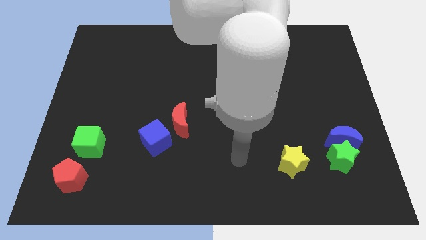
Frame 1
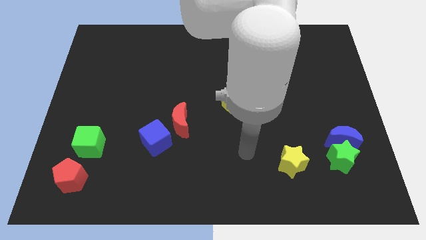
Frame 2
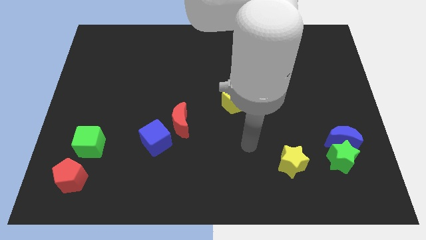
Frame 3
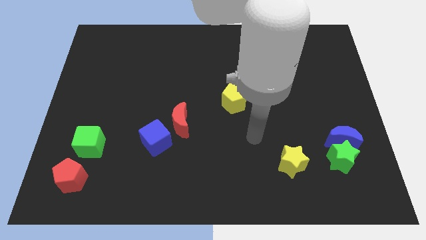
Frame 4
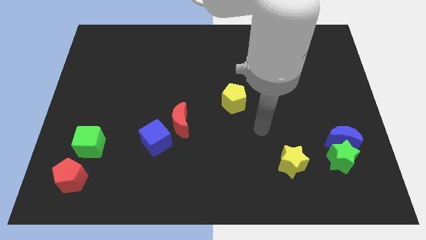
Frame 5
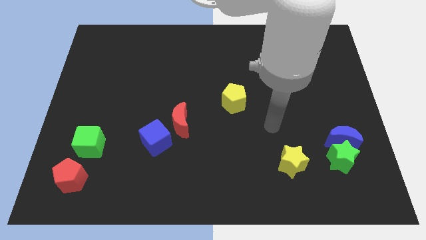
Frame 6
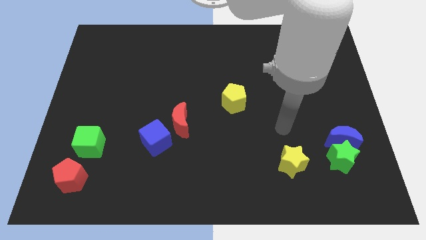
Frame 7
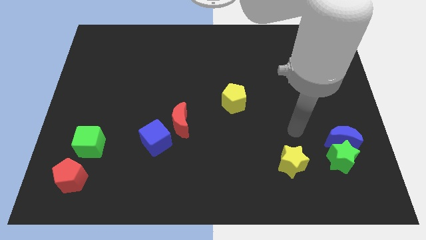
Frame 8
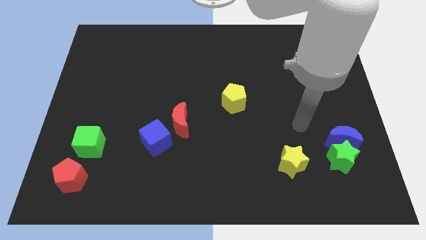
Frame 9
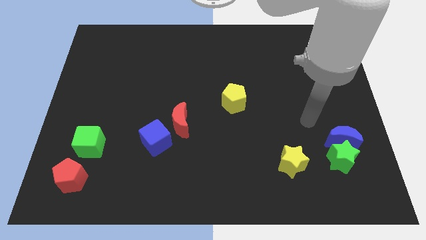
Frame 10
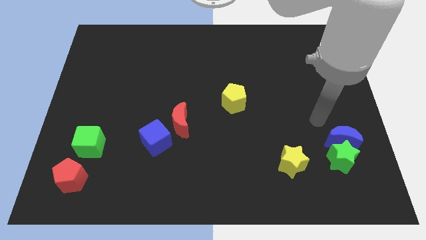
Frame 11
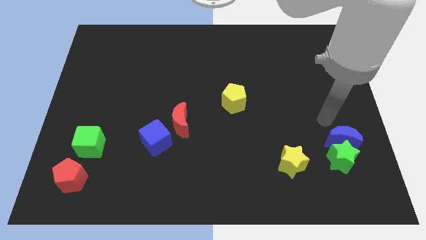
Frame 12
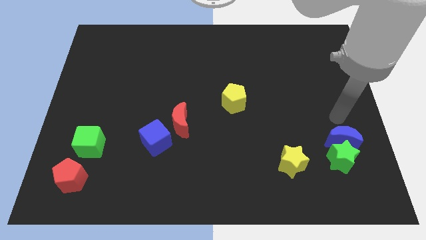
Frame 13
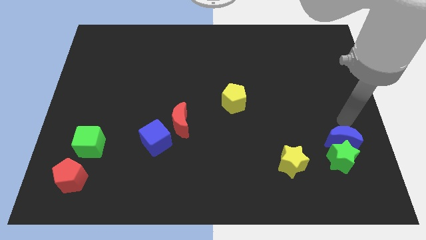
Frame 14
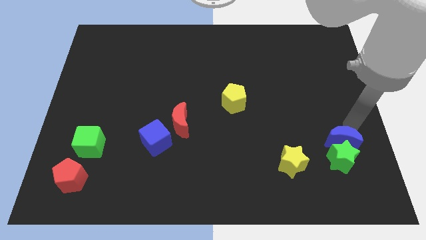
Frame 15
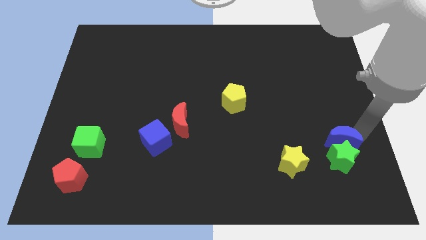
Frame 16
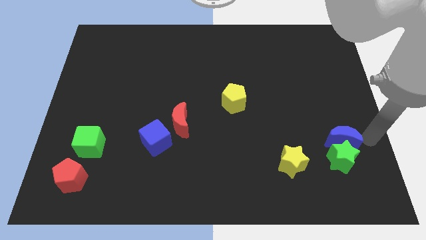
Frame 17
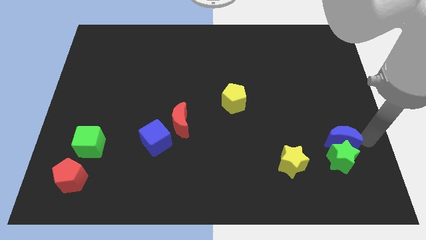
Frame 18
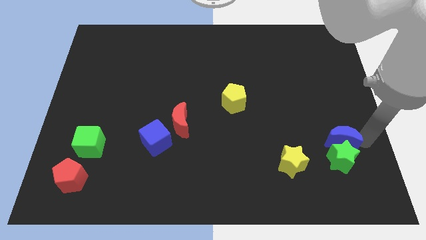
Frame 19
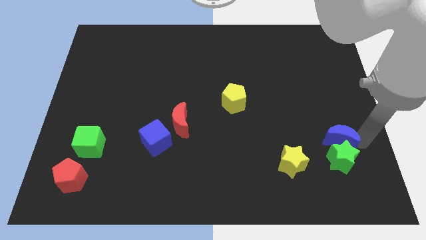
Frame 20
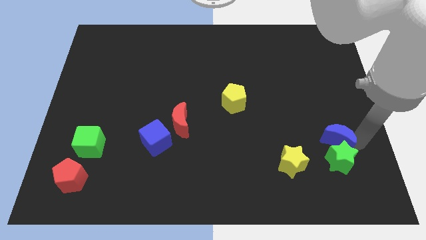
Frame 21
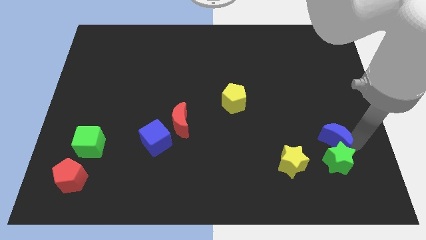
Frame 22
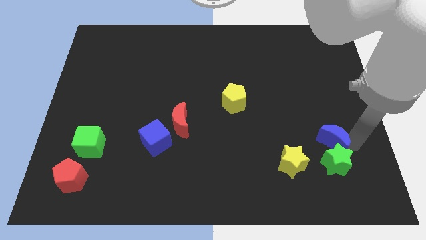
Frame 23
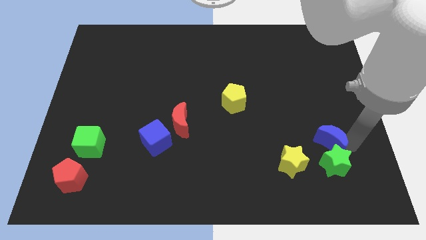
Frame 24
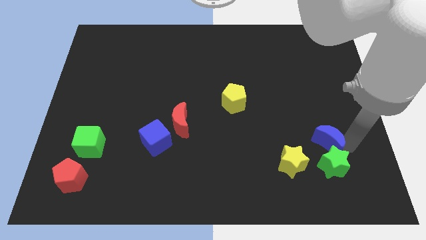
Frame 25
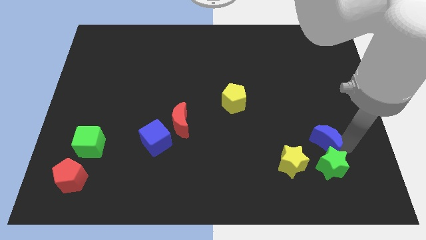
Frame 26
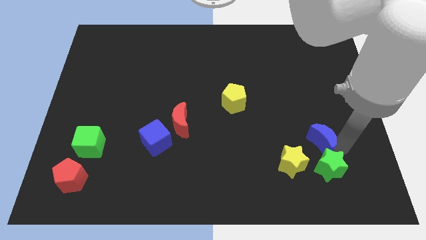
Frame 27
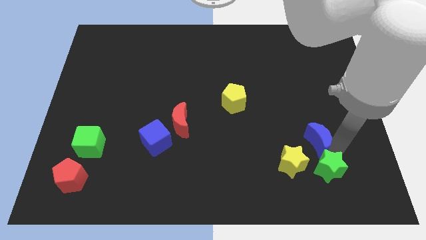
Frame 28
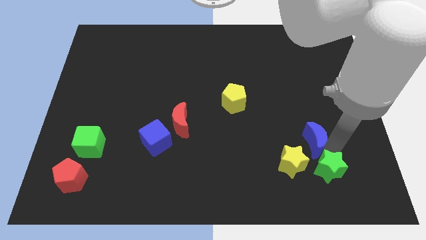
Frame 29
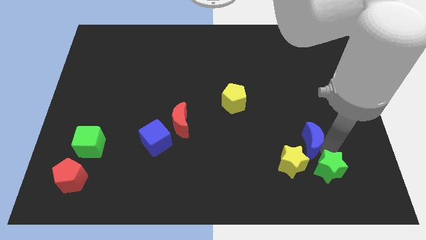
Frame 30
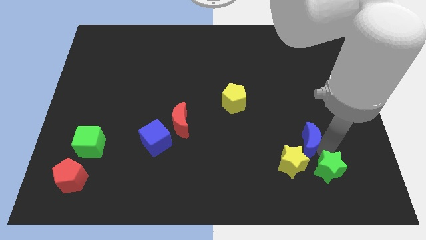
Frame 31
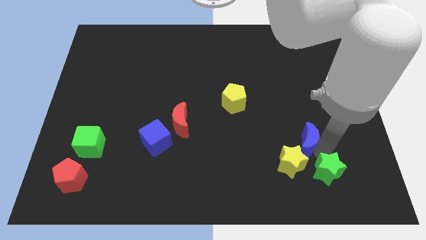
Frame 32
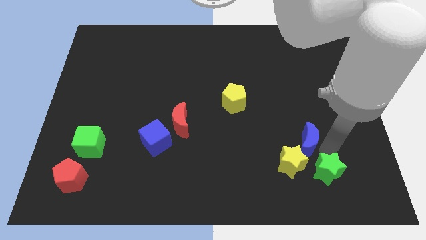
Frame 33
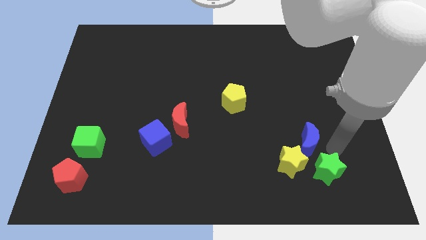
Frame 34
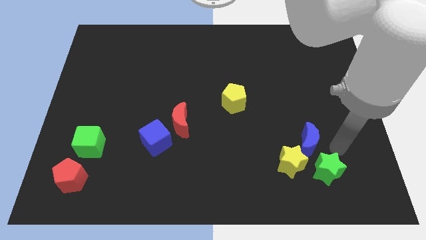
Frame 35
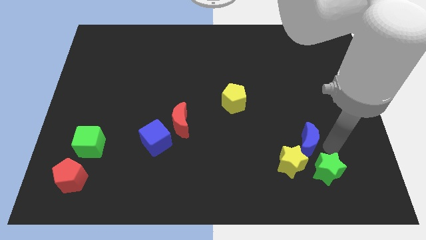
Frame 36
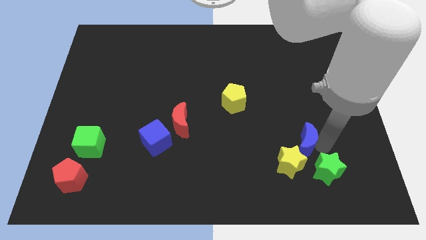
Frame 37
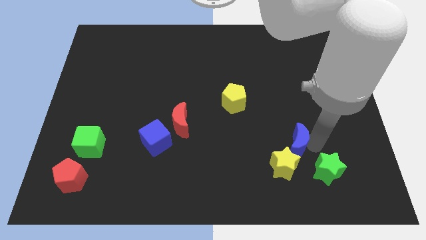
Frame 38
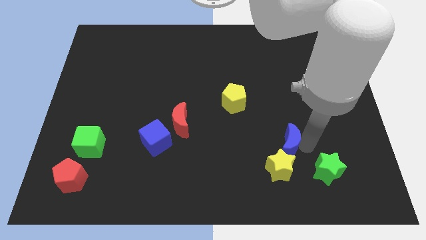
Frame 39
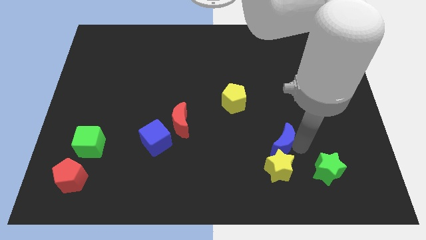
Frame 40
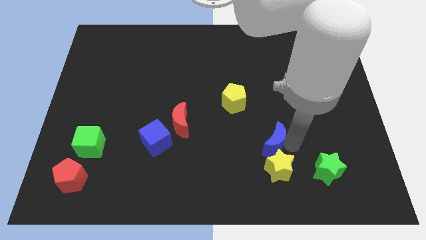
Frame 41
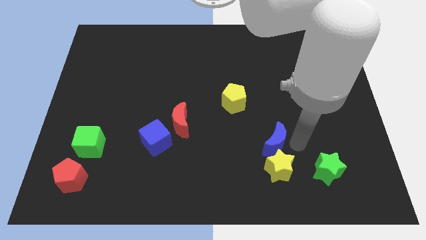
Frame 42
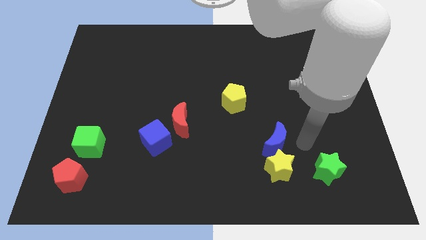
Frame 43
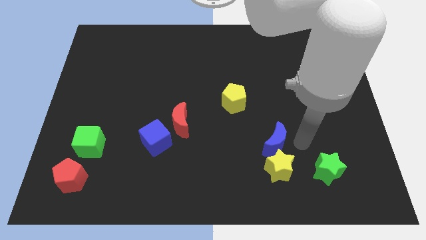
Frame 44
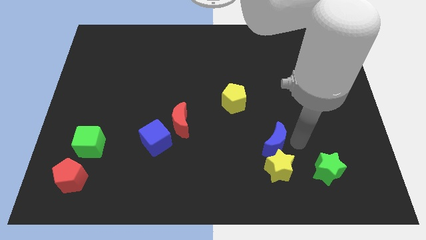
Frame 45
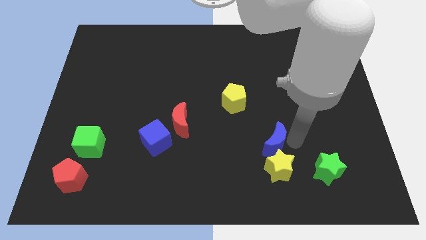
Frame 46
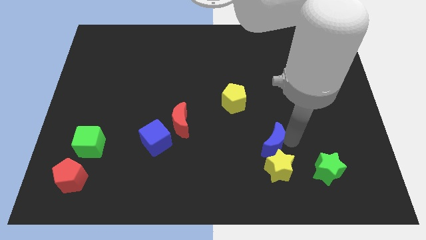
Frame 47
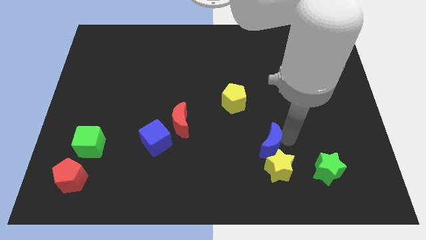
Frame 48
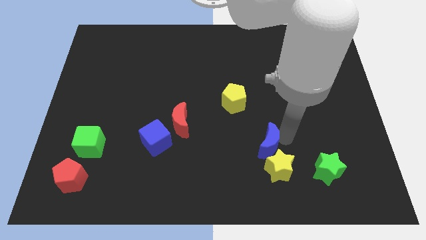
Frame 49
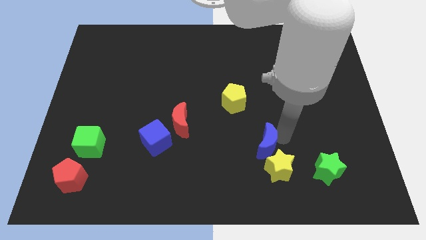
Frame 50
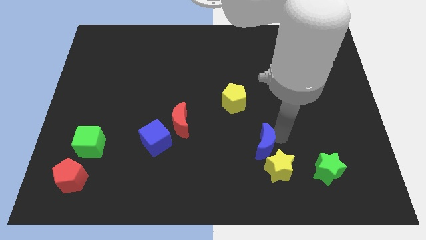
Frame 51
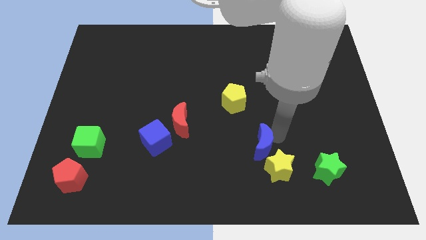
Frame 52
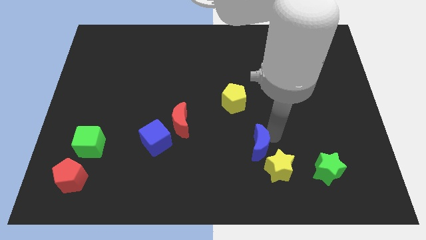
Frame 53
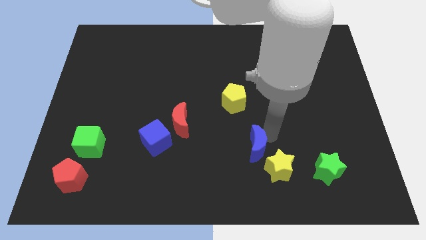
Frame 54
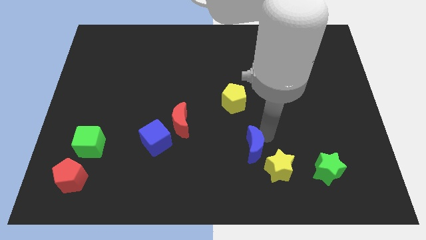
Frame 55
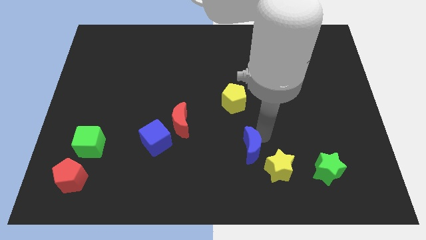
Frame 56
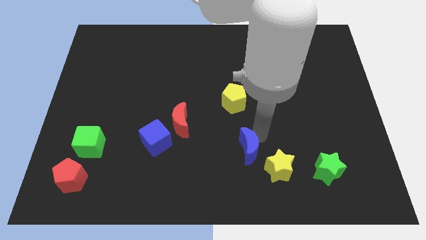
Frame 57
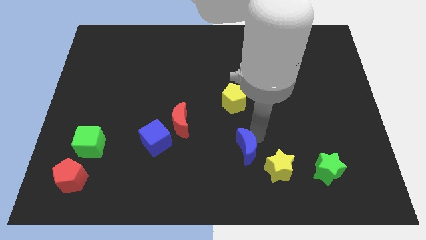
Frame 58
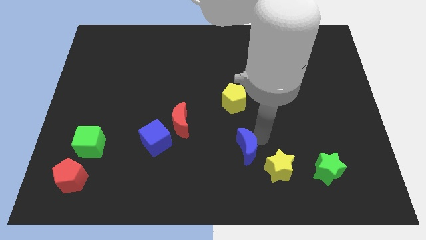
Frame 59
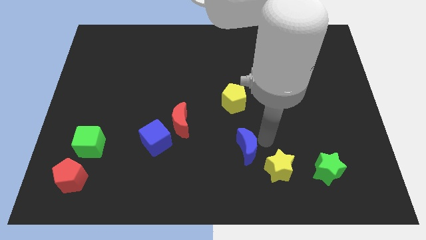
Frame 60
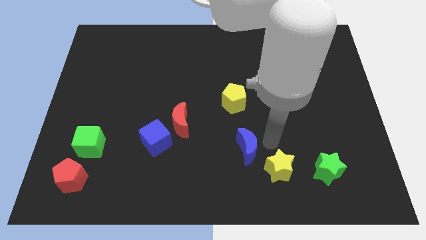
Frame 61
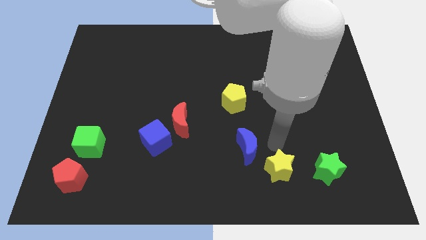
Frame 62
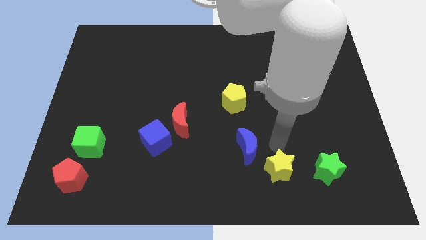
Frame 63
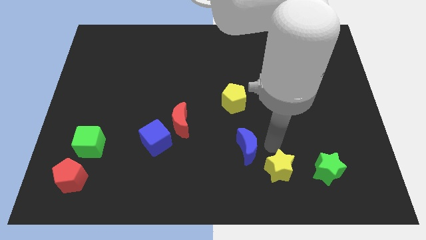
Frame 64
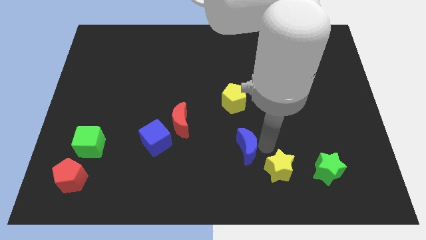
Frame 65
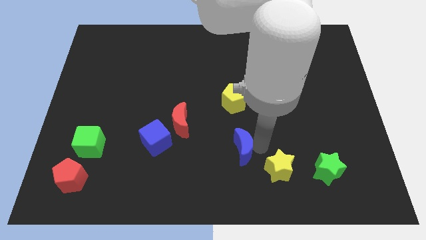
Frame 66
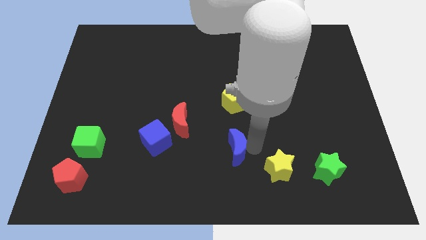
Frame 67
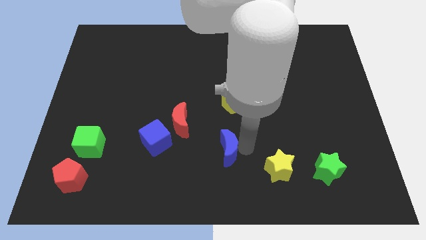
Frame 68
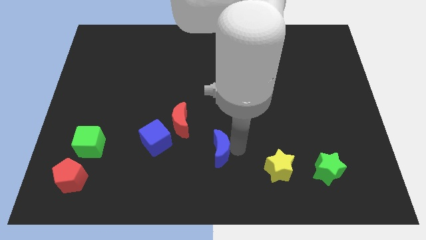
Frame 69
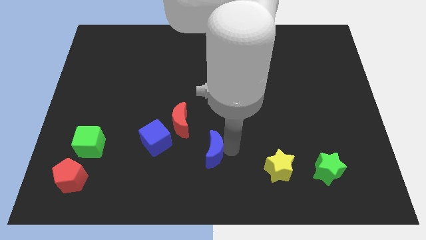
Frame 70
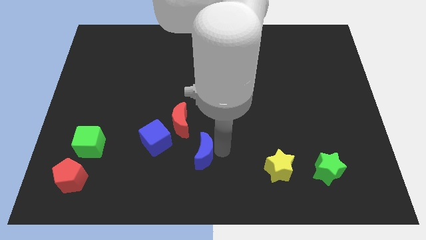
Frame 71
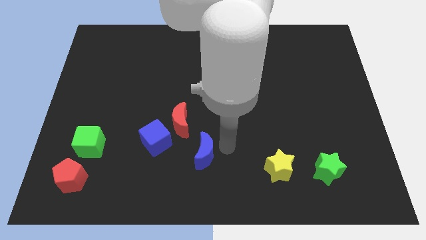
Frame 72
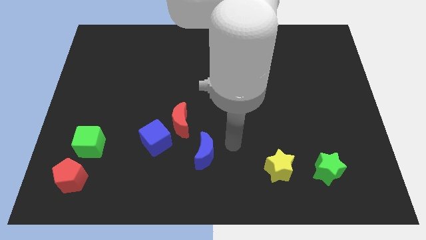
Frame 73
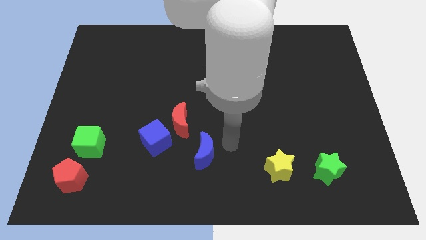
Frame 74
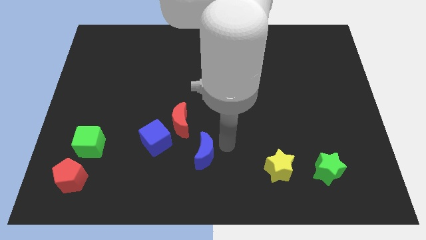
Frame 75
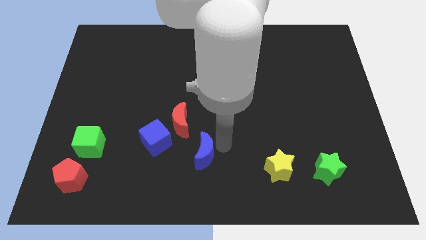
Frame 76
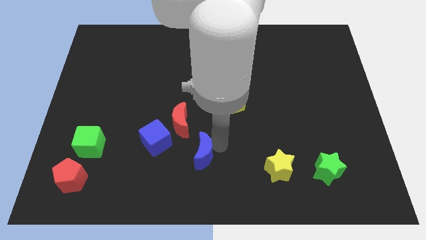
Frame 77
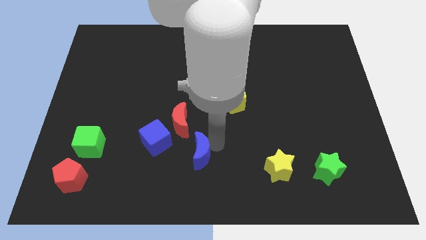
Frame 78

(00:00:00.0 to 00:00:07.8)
push the blue moon to the bottom side of the red moon
